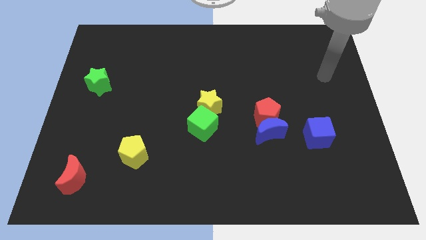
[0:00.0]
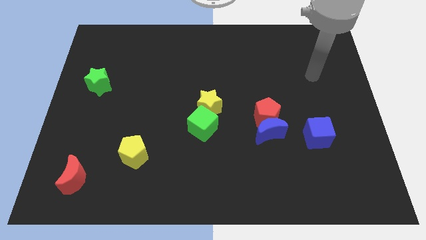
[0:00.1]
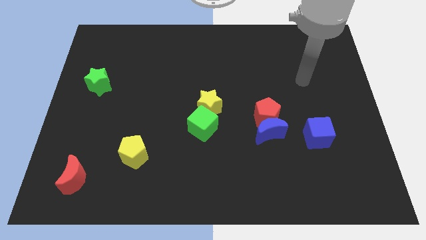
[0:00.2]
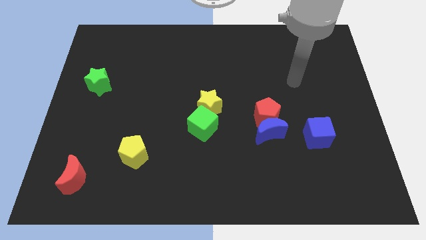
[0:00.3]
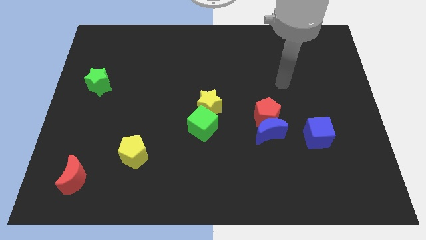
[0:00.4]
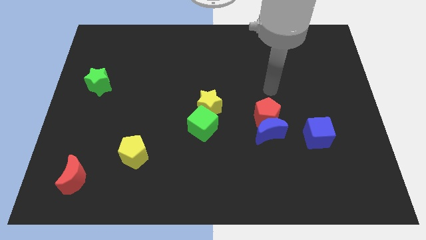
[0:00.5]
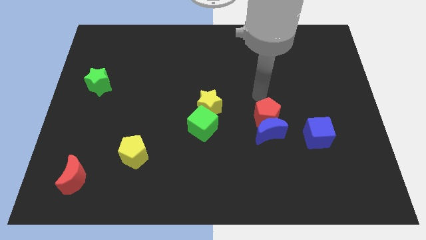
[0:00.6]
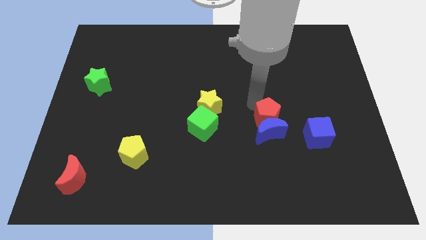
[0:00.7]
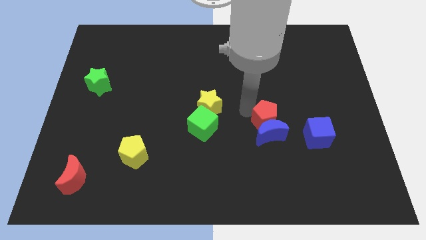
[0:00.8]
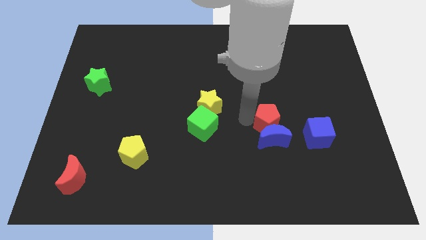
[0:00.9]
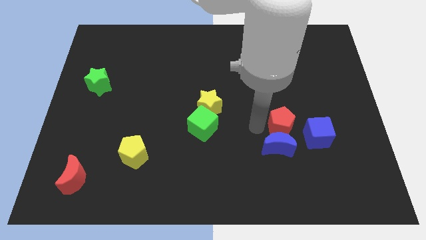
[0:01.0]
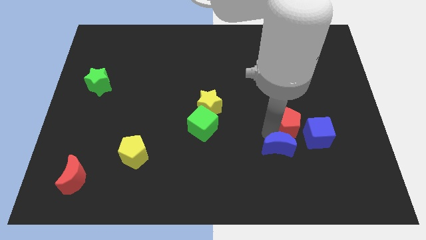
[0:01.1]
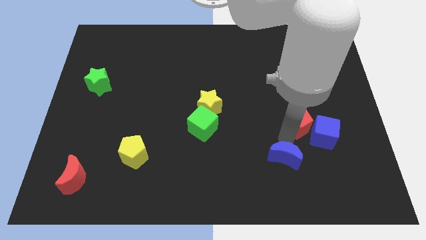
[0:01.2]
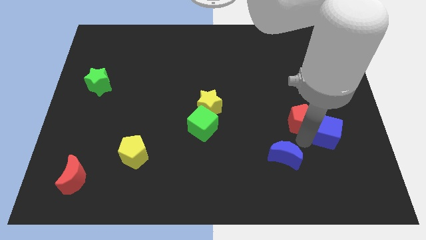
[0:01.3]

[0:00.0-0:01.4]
pull the red pentagon apart from the blue moon

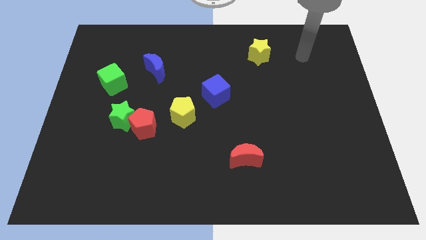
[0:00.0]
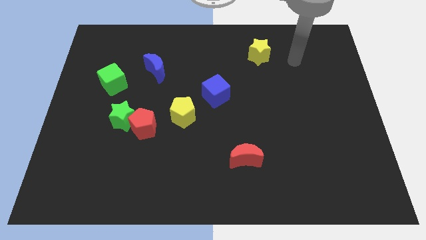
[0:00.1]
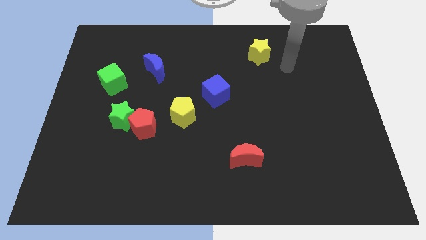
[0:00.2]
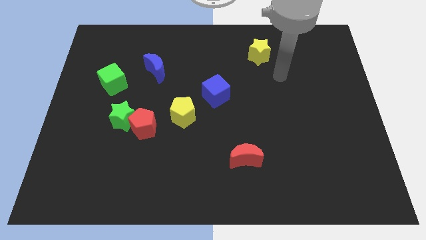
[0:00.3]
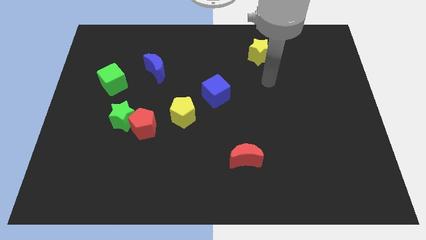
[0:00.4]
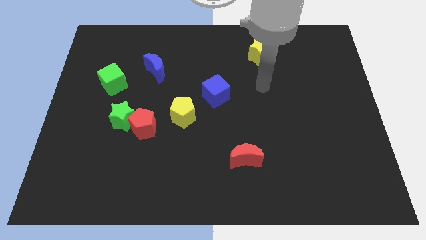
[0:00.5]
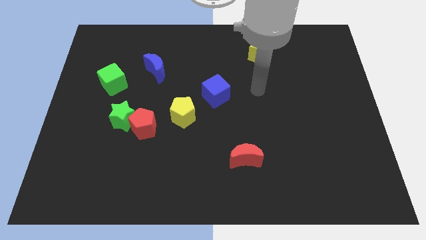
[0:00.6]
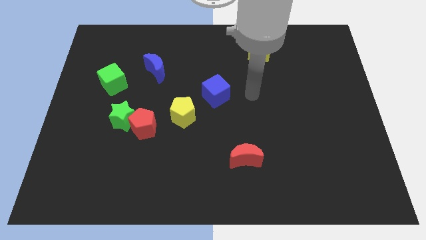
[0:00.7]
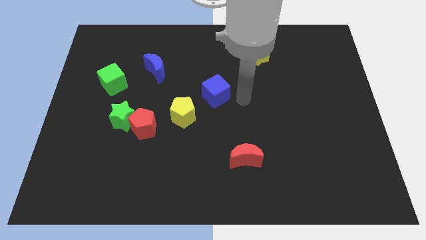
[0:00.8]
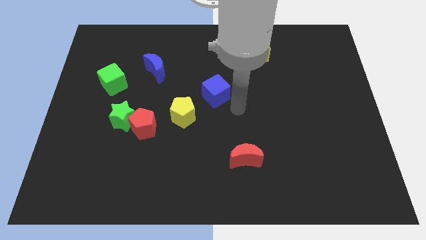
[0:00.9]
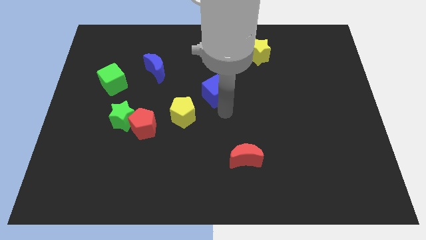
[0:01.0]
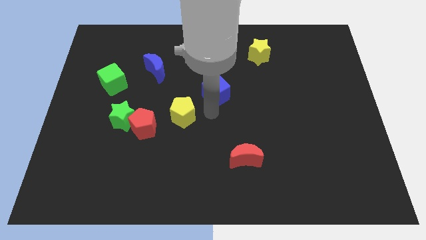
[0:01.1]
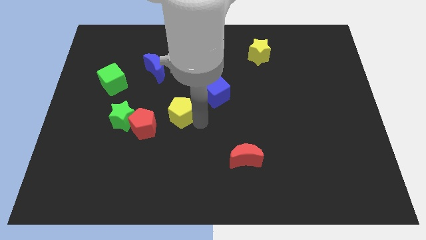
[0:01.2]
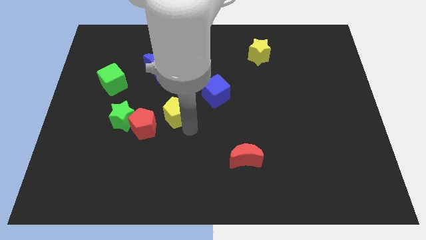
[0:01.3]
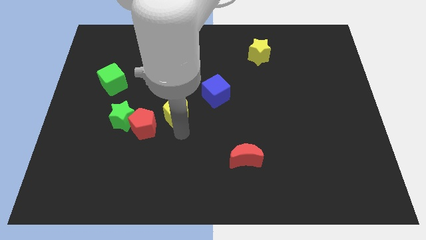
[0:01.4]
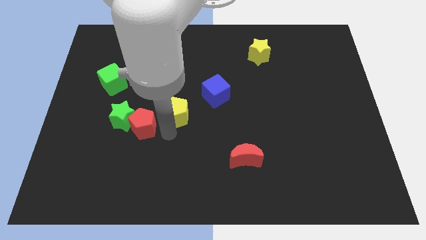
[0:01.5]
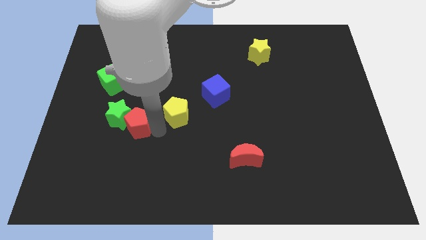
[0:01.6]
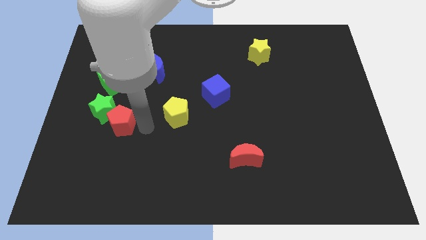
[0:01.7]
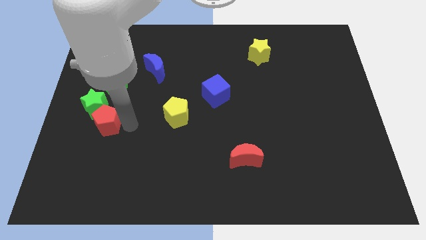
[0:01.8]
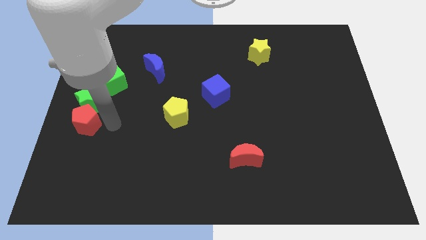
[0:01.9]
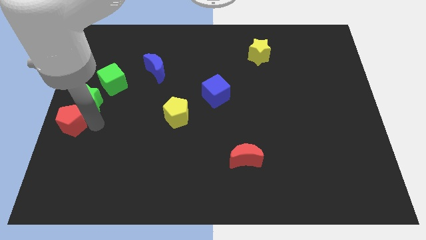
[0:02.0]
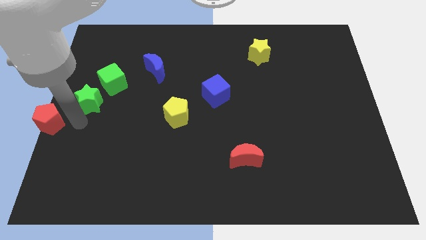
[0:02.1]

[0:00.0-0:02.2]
move the green star away from the red pentagon

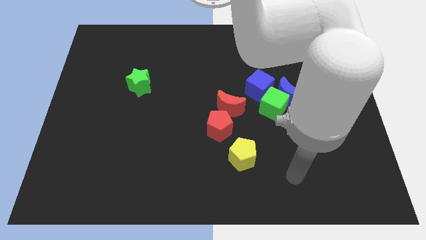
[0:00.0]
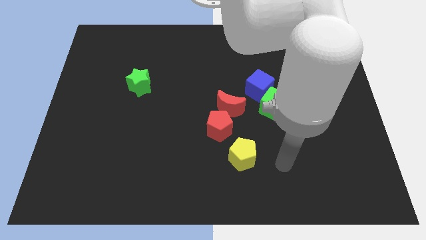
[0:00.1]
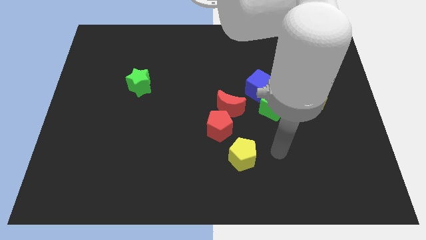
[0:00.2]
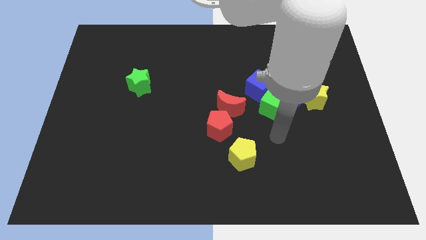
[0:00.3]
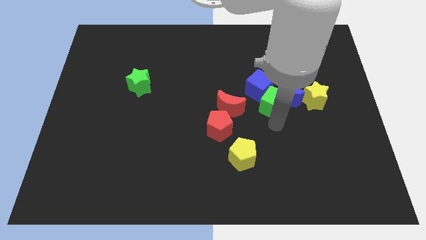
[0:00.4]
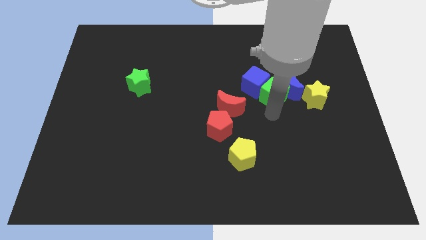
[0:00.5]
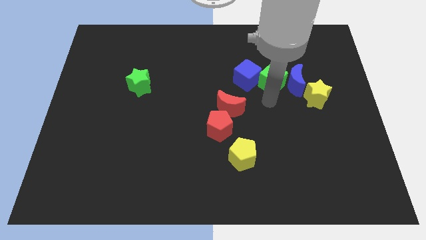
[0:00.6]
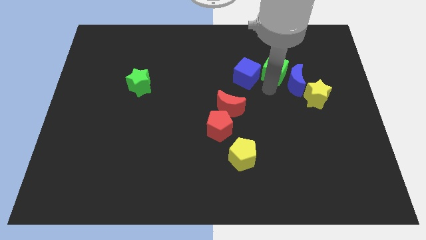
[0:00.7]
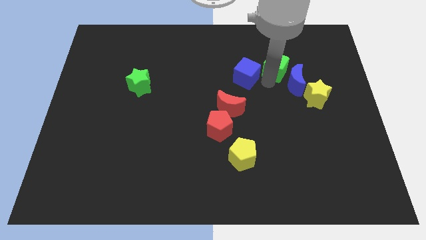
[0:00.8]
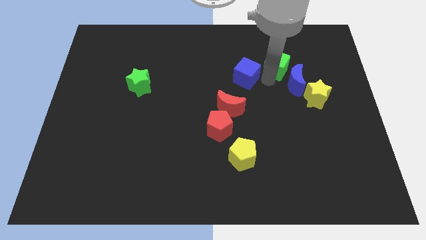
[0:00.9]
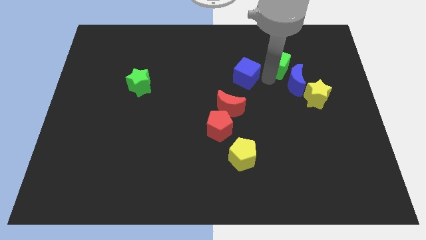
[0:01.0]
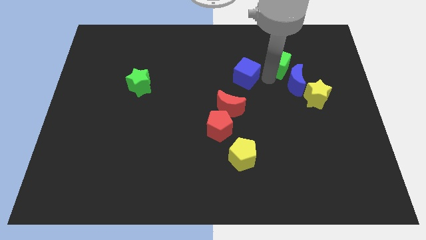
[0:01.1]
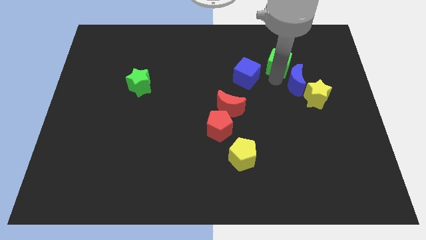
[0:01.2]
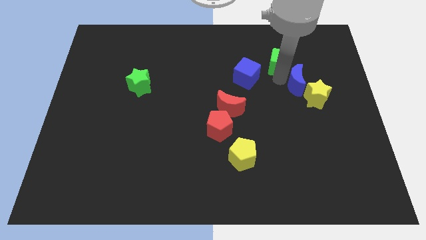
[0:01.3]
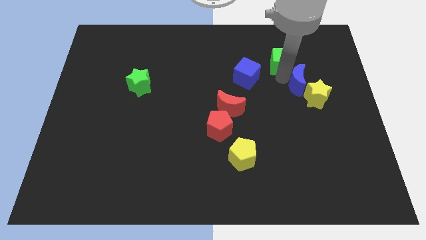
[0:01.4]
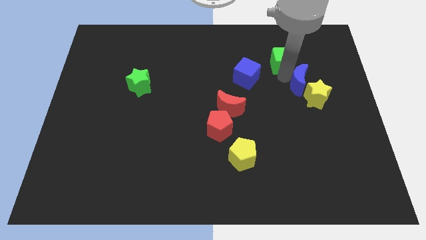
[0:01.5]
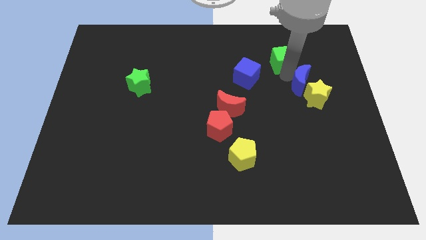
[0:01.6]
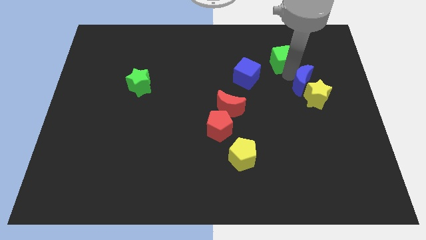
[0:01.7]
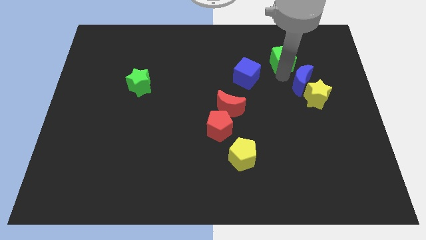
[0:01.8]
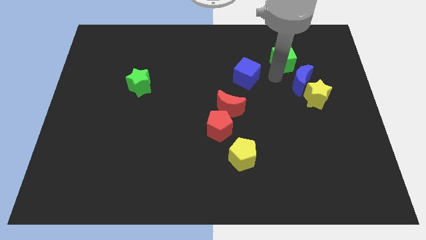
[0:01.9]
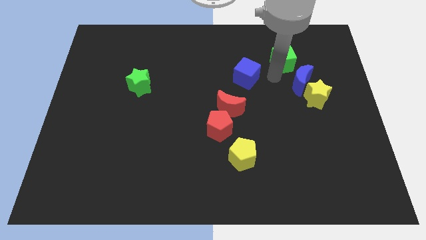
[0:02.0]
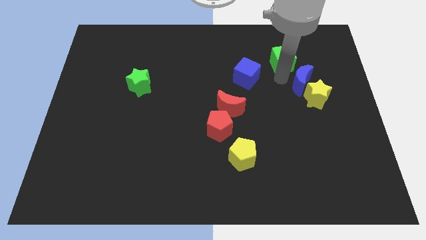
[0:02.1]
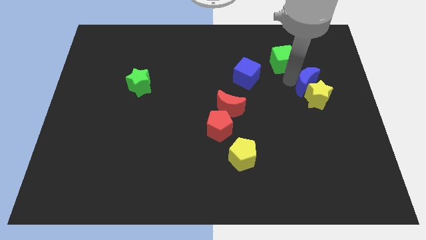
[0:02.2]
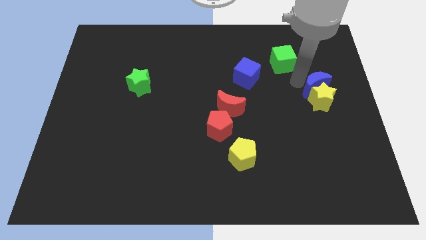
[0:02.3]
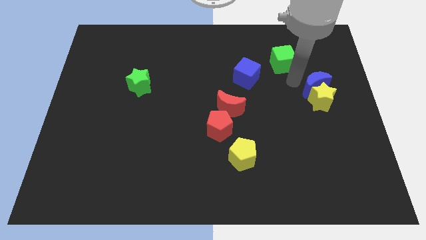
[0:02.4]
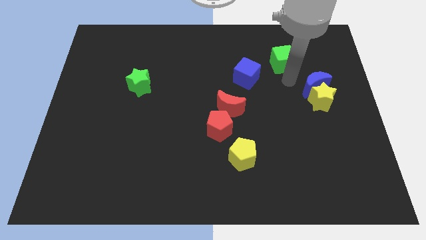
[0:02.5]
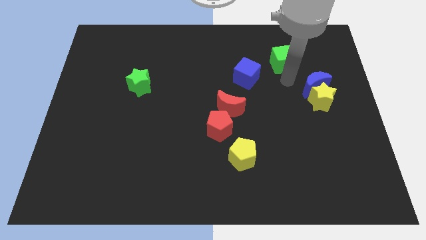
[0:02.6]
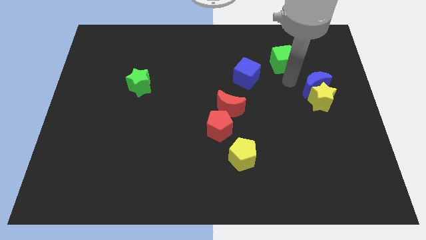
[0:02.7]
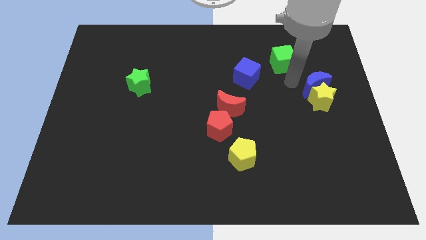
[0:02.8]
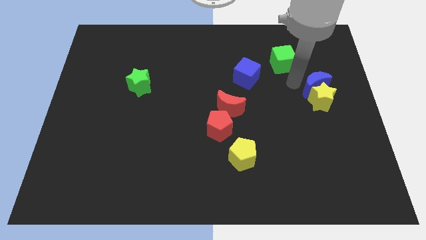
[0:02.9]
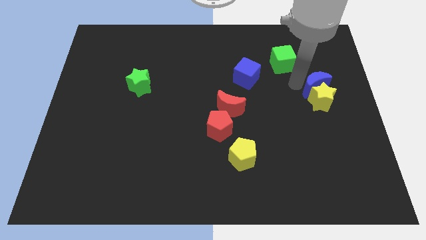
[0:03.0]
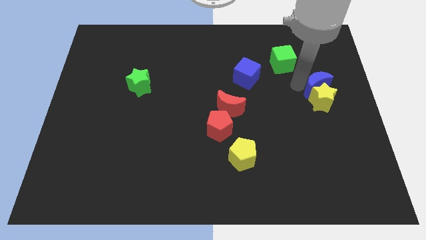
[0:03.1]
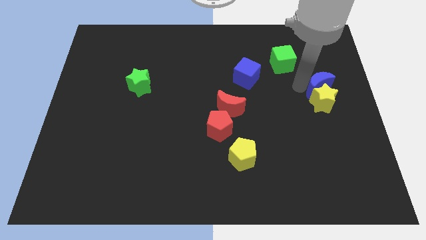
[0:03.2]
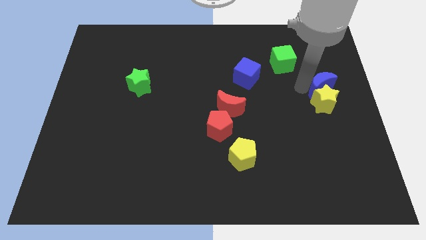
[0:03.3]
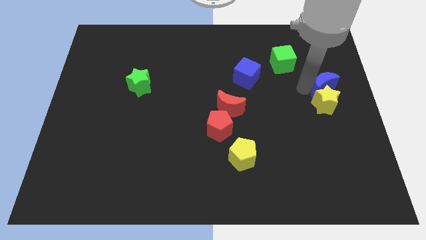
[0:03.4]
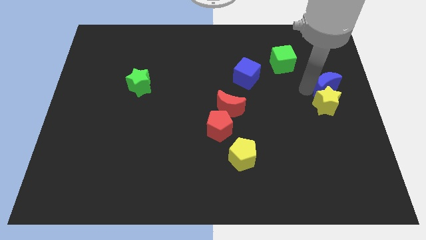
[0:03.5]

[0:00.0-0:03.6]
move the blue moon away from the green cube, yellow star, and blue cube

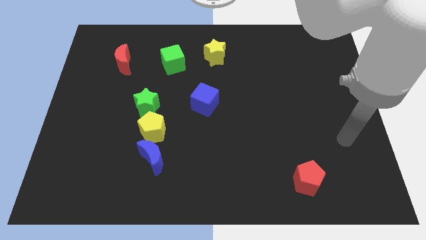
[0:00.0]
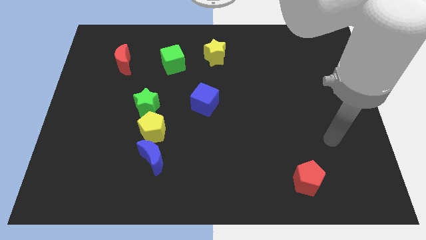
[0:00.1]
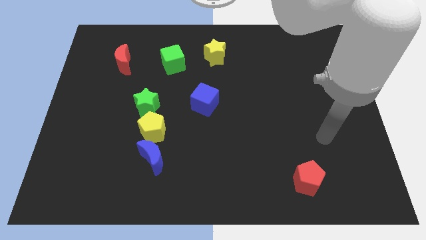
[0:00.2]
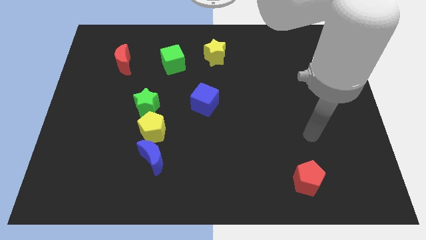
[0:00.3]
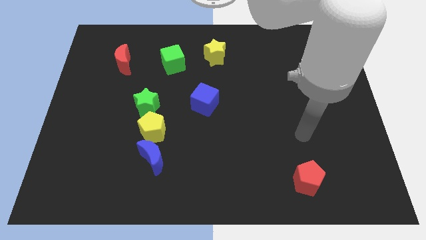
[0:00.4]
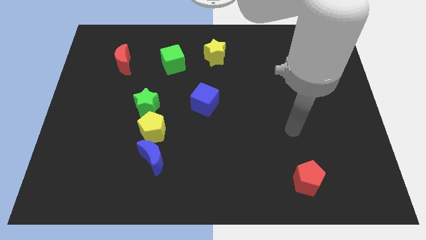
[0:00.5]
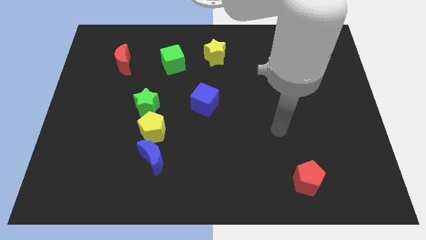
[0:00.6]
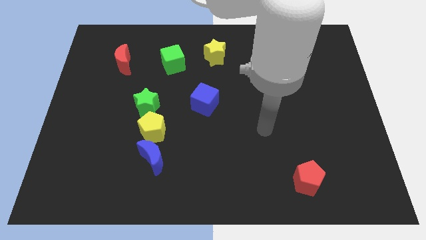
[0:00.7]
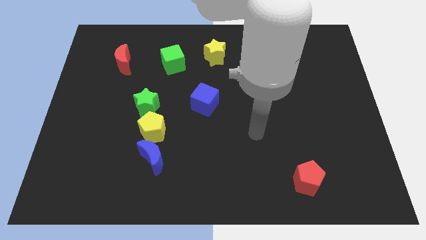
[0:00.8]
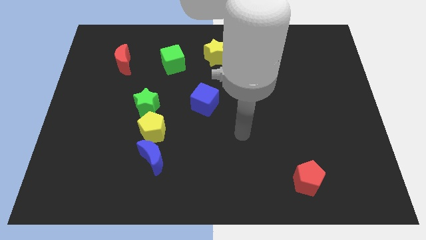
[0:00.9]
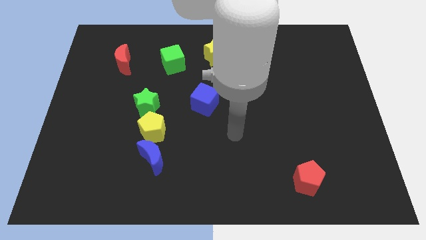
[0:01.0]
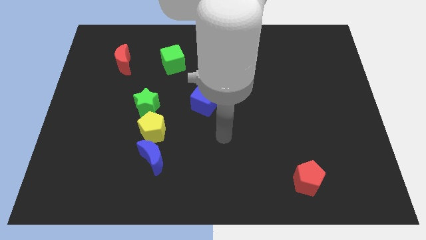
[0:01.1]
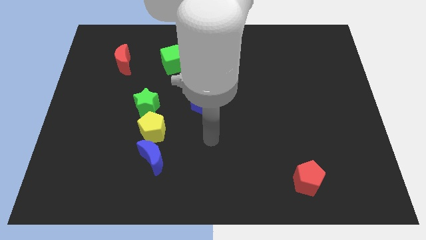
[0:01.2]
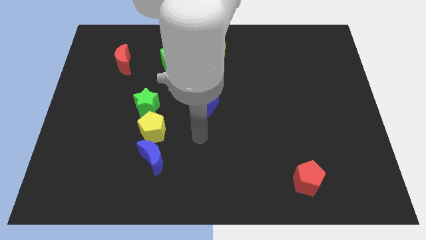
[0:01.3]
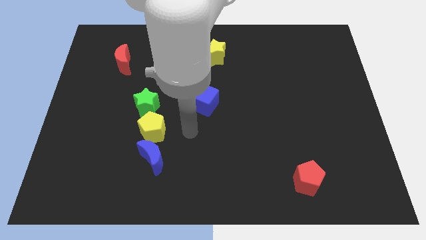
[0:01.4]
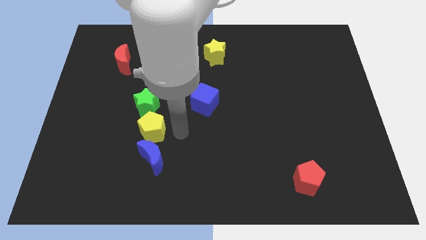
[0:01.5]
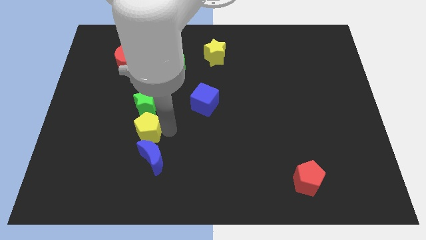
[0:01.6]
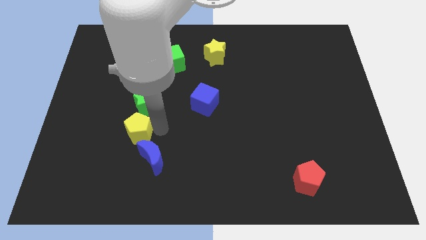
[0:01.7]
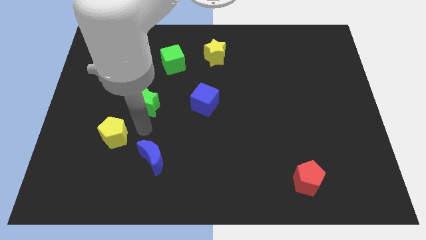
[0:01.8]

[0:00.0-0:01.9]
move the green star away from the yellow pentagon

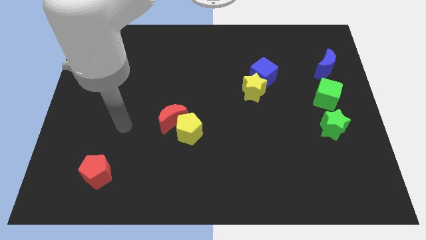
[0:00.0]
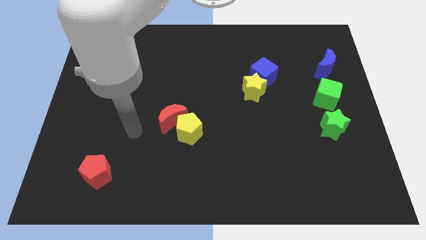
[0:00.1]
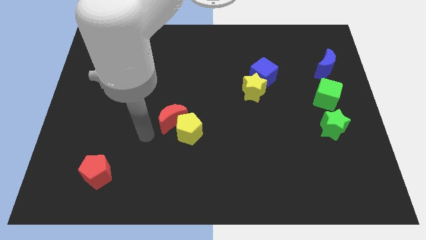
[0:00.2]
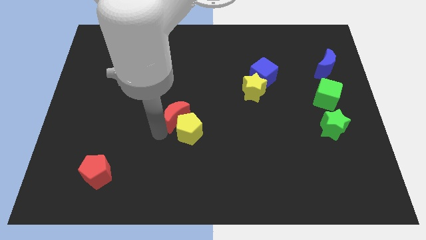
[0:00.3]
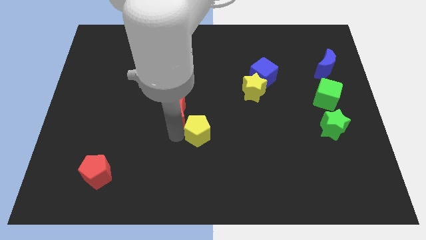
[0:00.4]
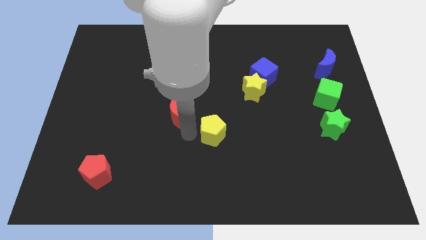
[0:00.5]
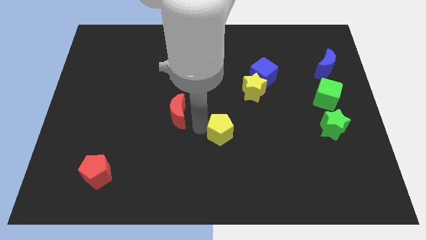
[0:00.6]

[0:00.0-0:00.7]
separate the red moon from the yellow pentagon
